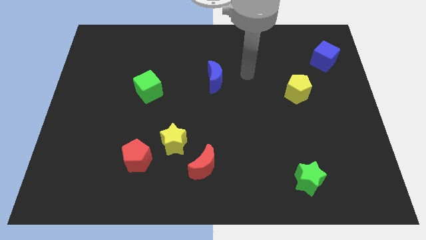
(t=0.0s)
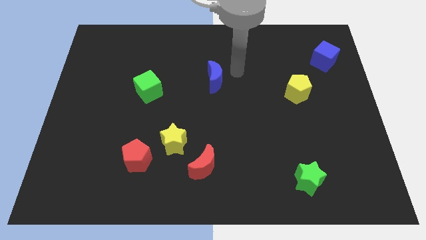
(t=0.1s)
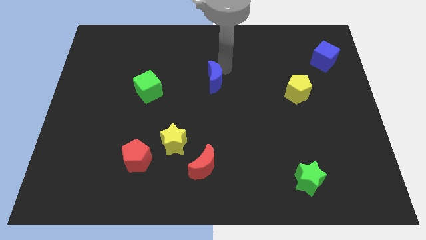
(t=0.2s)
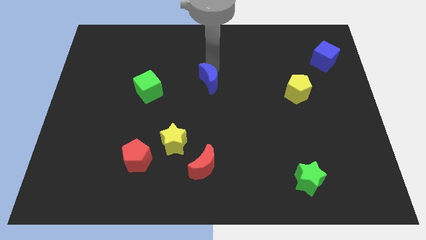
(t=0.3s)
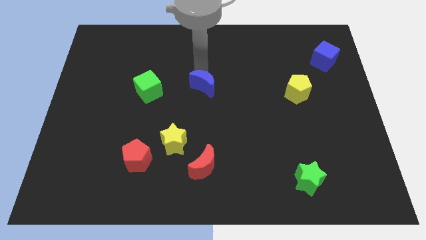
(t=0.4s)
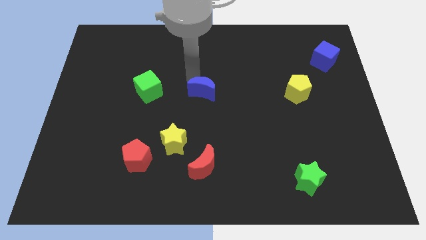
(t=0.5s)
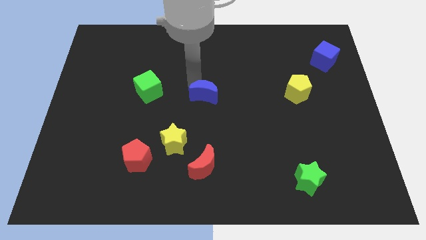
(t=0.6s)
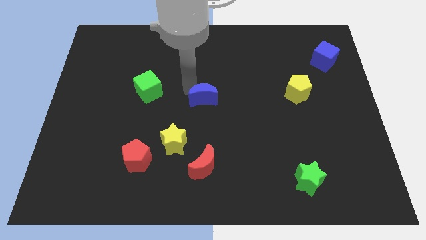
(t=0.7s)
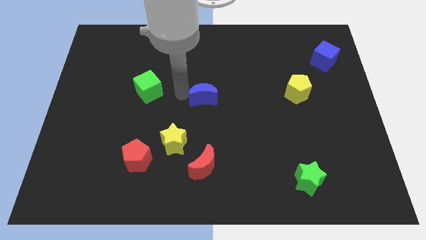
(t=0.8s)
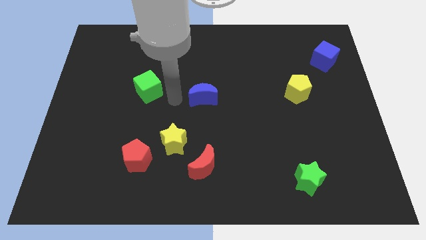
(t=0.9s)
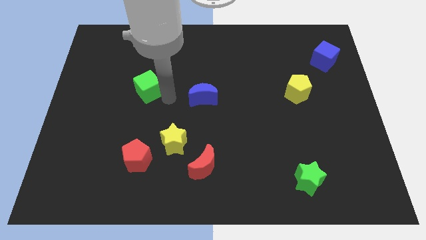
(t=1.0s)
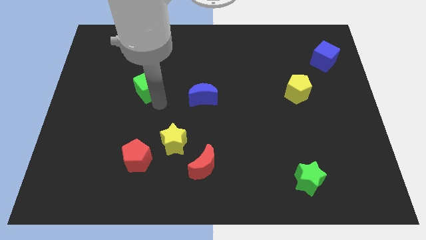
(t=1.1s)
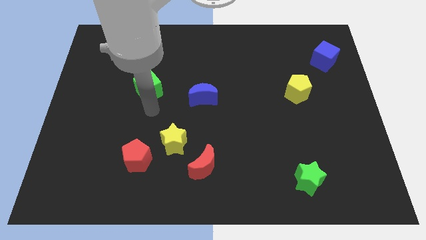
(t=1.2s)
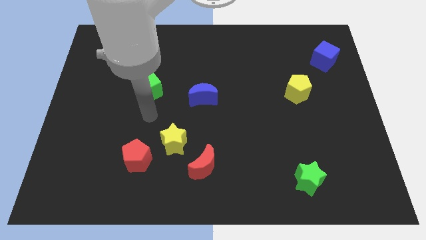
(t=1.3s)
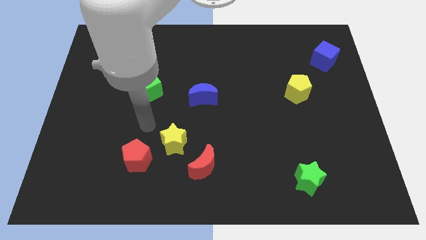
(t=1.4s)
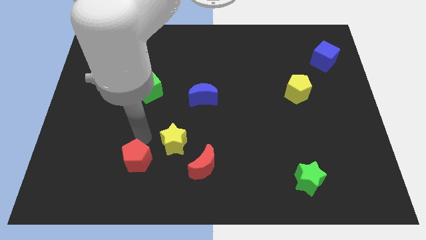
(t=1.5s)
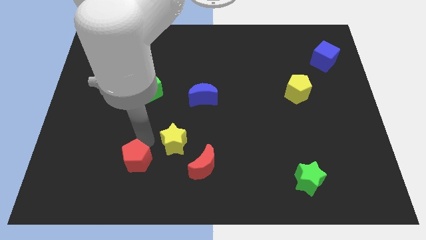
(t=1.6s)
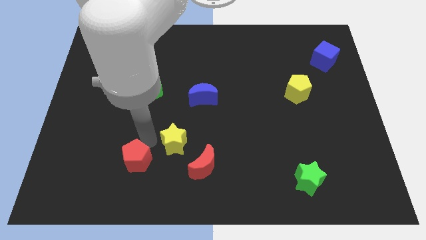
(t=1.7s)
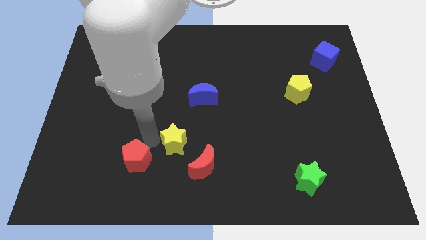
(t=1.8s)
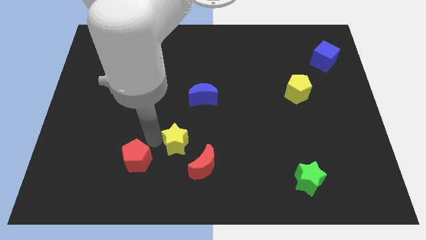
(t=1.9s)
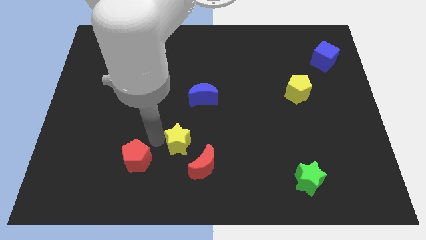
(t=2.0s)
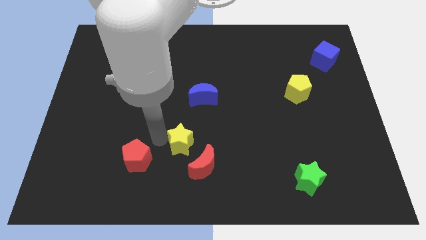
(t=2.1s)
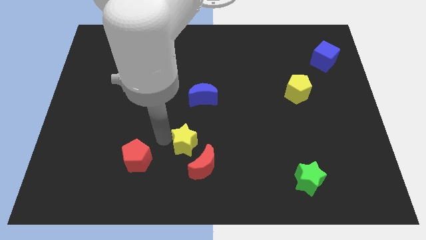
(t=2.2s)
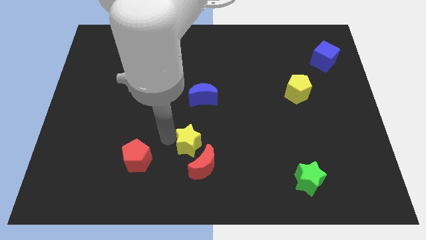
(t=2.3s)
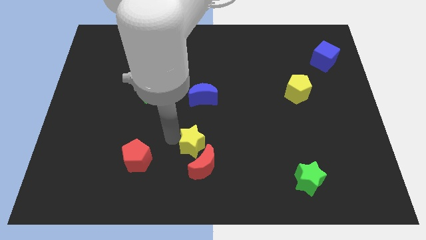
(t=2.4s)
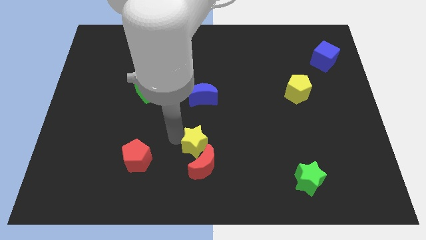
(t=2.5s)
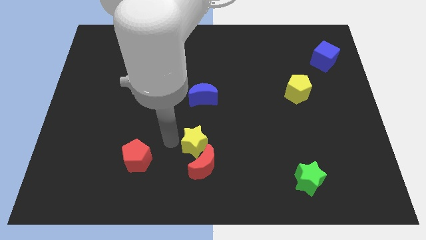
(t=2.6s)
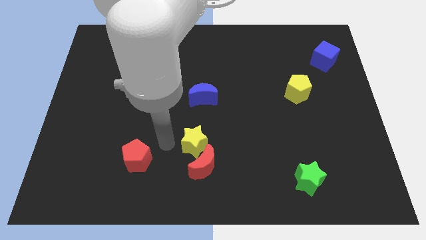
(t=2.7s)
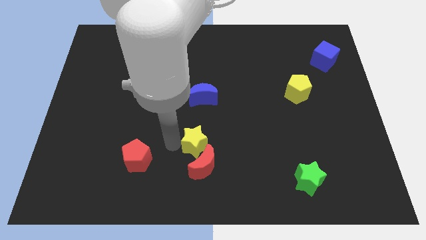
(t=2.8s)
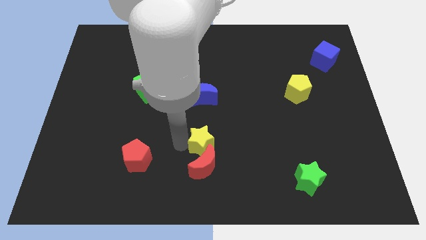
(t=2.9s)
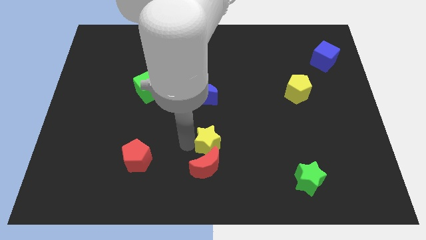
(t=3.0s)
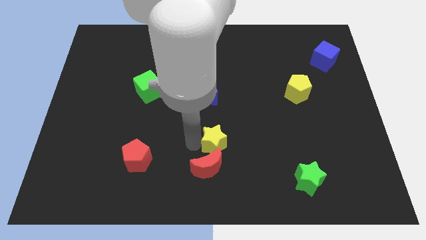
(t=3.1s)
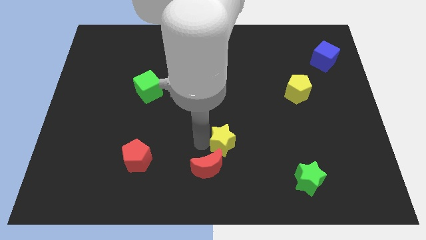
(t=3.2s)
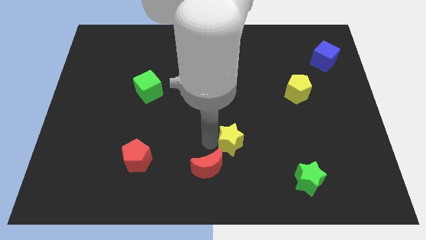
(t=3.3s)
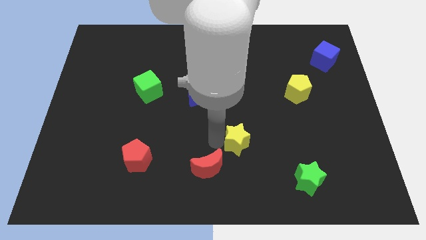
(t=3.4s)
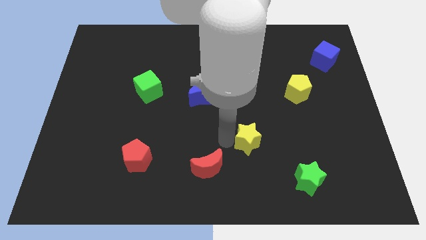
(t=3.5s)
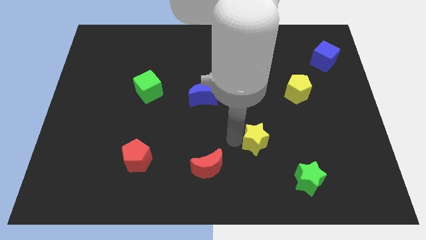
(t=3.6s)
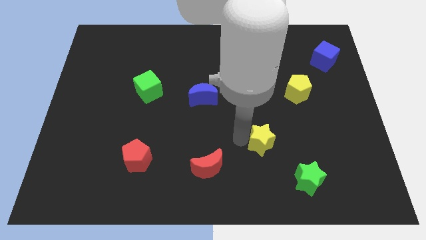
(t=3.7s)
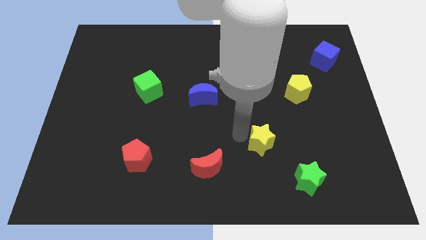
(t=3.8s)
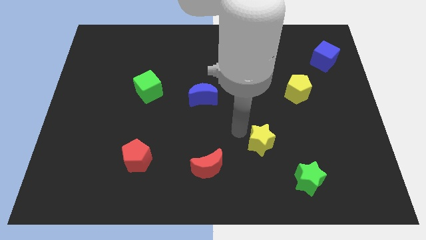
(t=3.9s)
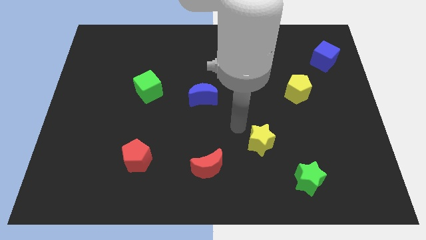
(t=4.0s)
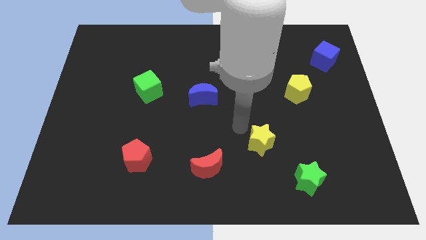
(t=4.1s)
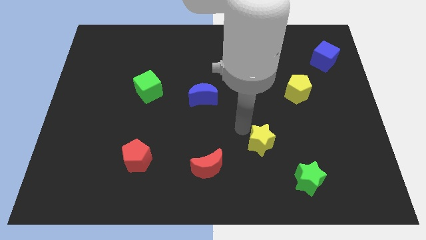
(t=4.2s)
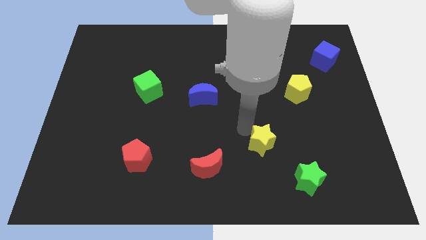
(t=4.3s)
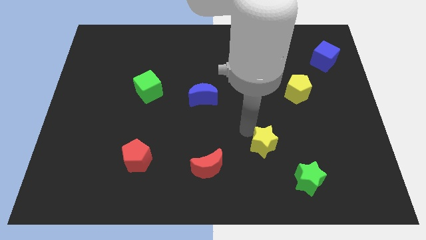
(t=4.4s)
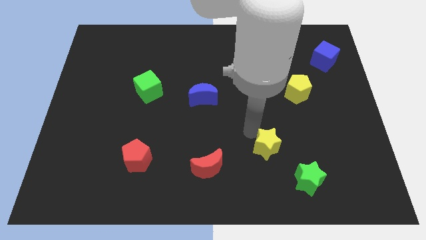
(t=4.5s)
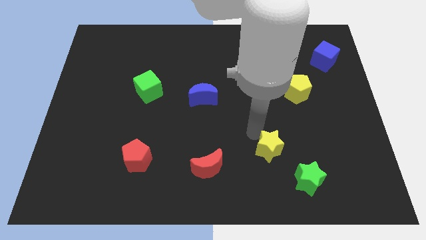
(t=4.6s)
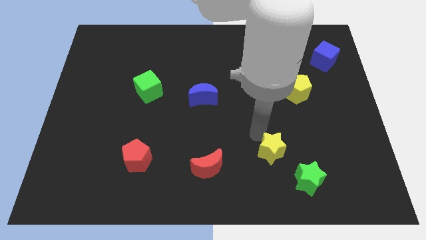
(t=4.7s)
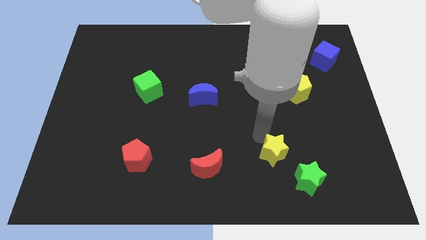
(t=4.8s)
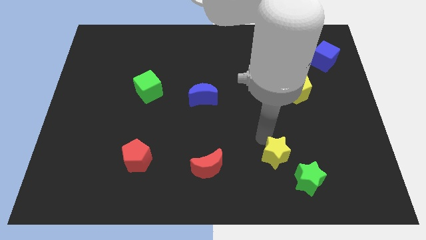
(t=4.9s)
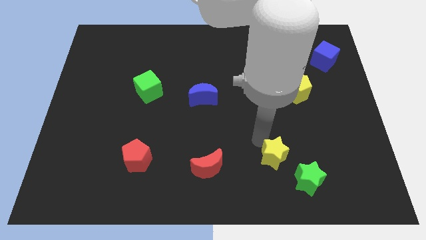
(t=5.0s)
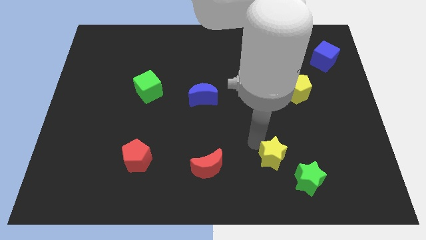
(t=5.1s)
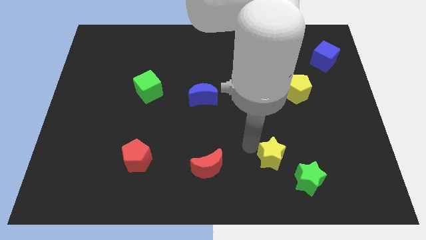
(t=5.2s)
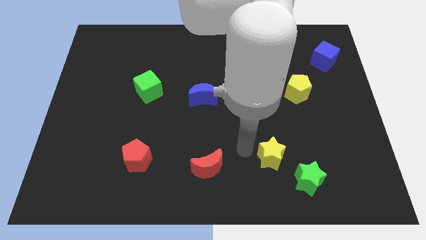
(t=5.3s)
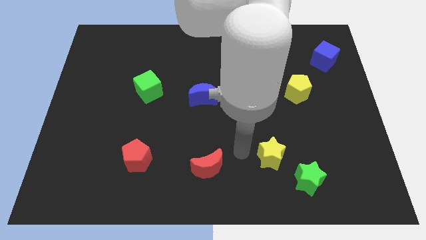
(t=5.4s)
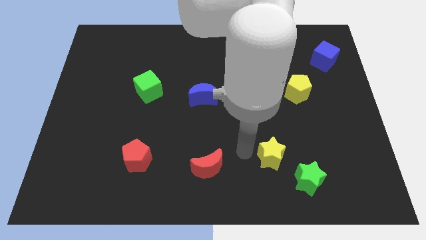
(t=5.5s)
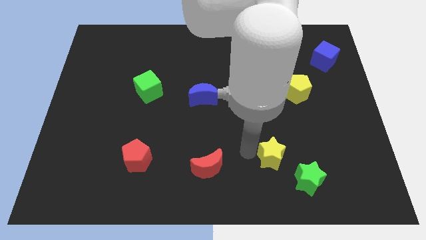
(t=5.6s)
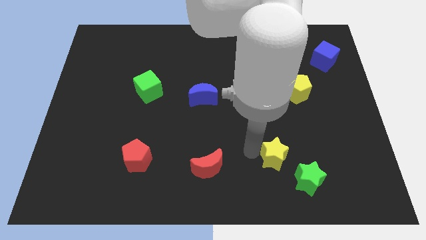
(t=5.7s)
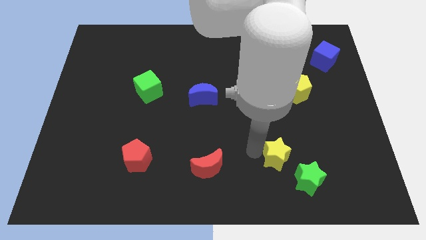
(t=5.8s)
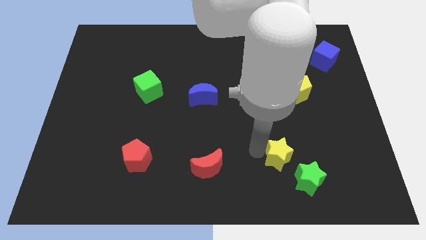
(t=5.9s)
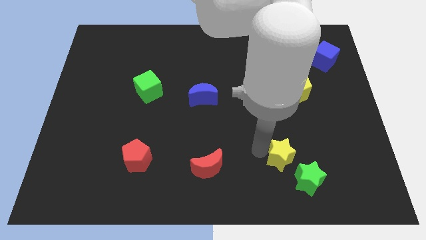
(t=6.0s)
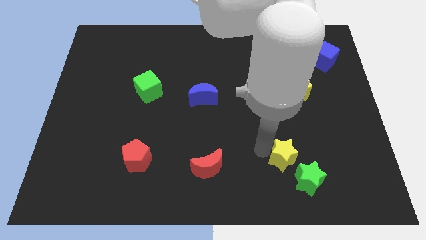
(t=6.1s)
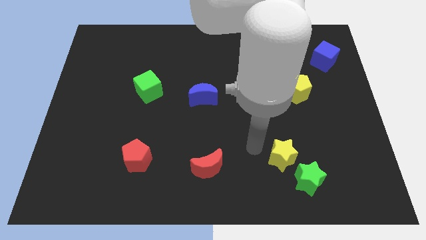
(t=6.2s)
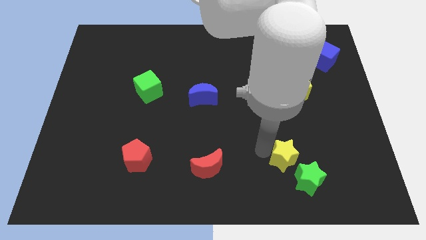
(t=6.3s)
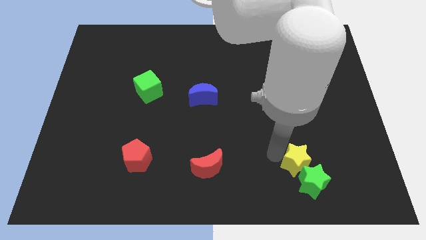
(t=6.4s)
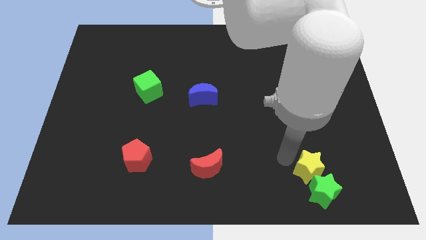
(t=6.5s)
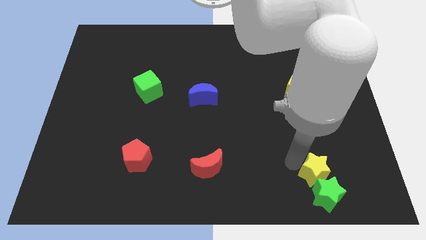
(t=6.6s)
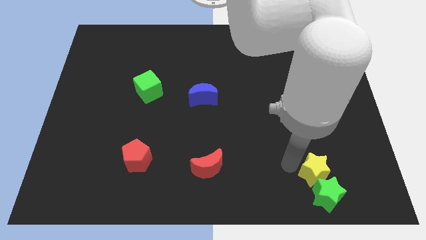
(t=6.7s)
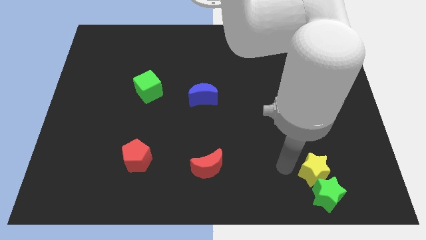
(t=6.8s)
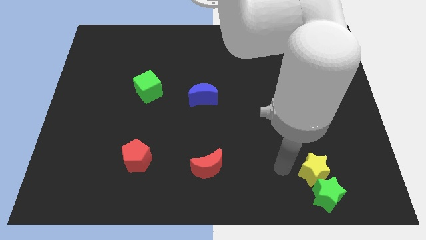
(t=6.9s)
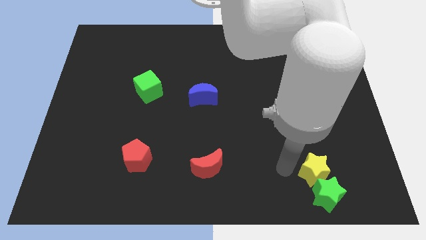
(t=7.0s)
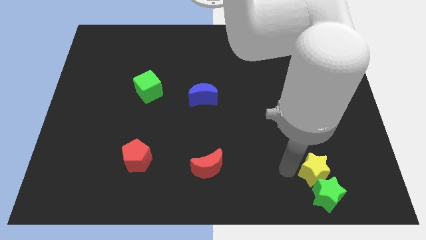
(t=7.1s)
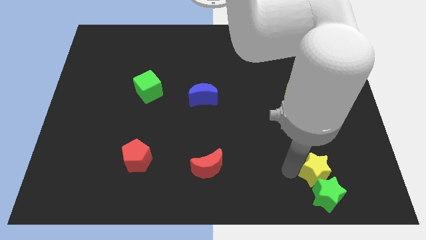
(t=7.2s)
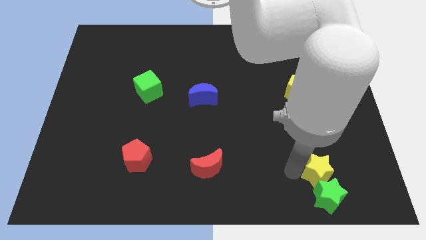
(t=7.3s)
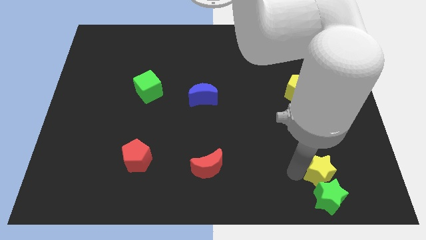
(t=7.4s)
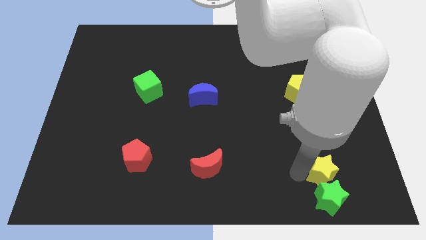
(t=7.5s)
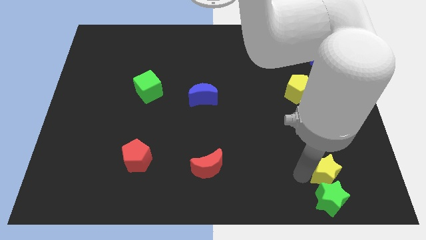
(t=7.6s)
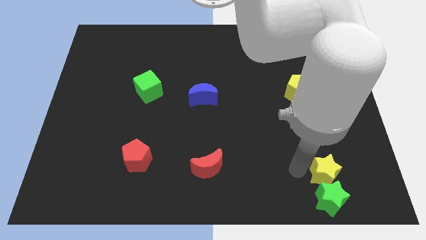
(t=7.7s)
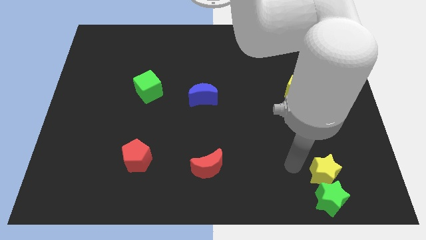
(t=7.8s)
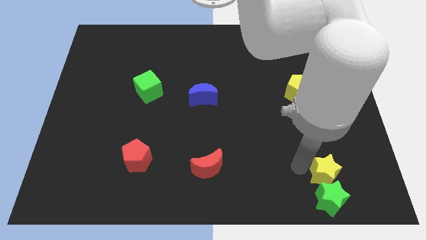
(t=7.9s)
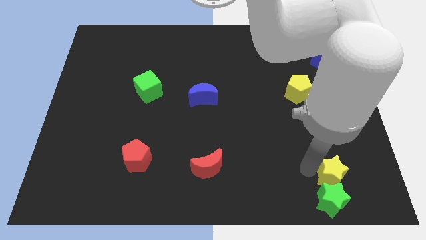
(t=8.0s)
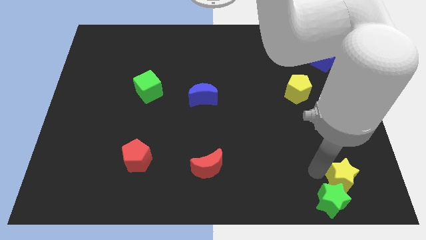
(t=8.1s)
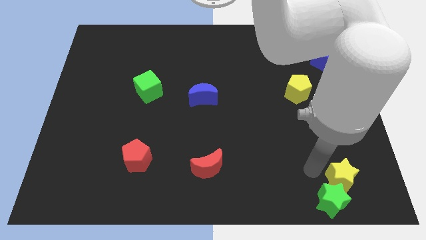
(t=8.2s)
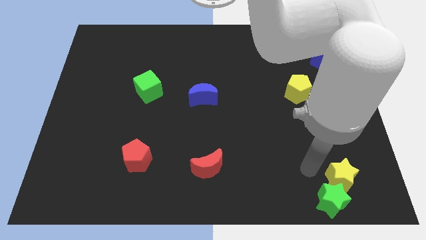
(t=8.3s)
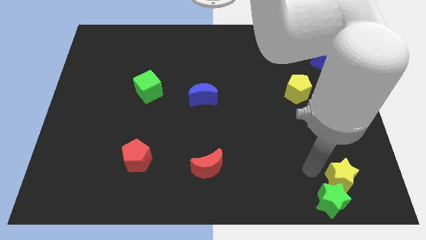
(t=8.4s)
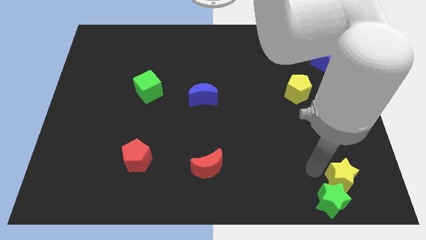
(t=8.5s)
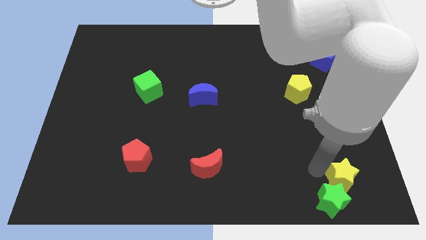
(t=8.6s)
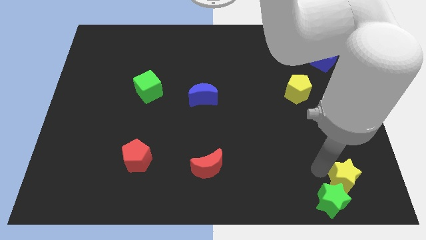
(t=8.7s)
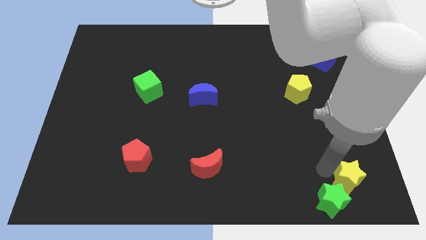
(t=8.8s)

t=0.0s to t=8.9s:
push the yellow star to the bottom right
